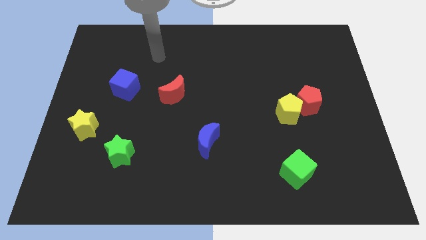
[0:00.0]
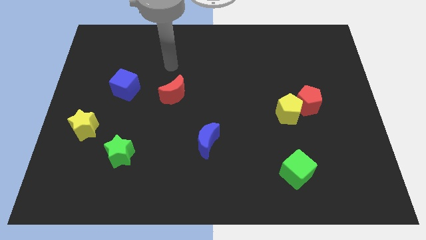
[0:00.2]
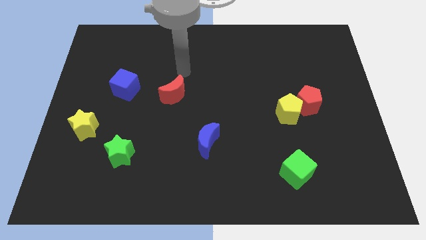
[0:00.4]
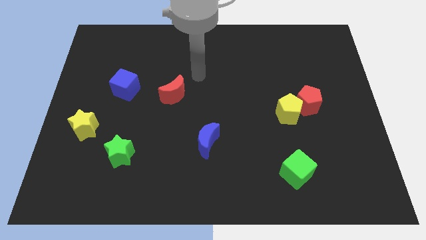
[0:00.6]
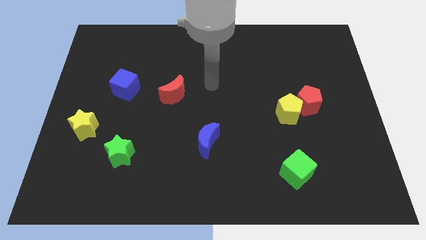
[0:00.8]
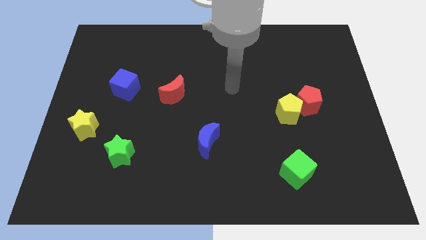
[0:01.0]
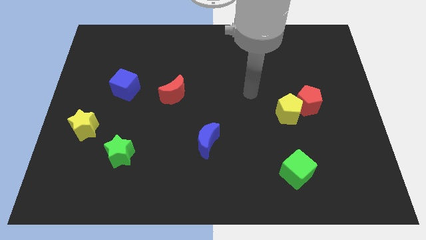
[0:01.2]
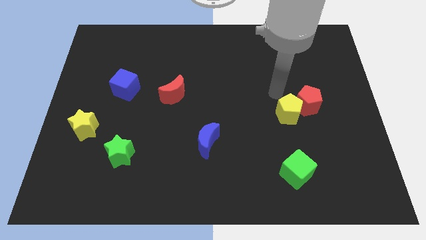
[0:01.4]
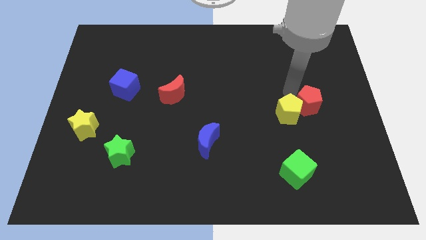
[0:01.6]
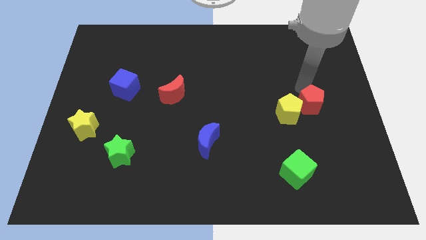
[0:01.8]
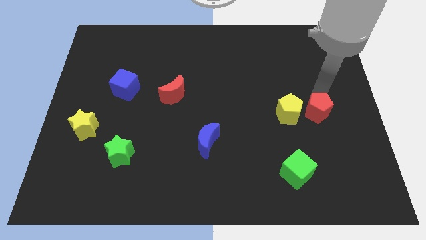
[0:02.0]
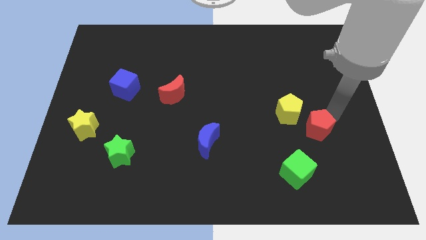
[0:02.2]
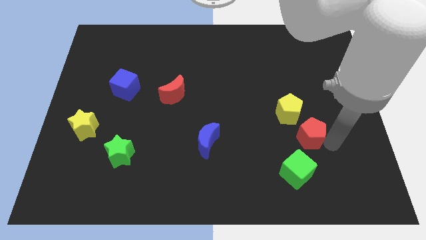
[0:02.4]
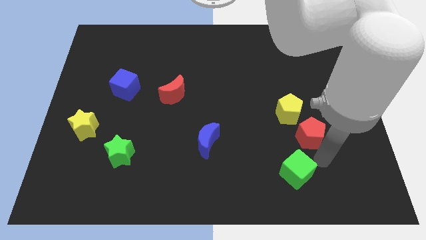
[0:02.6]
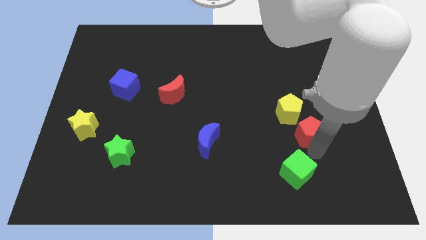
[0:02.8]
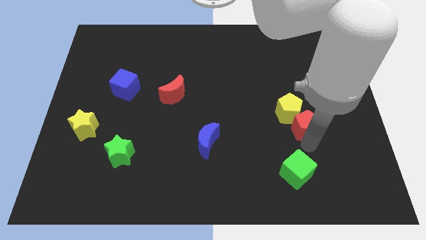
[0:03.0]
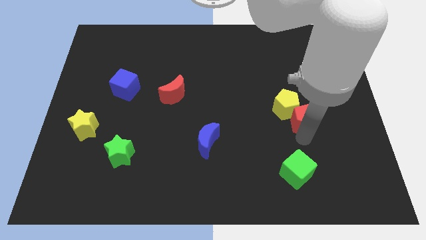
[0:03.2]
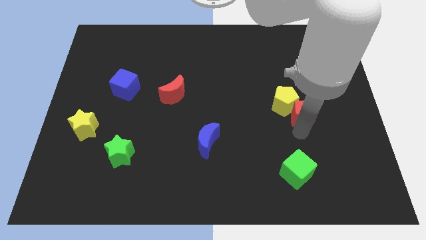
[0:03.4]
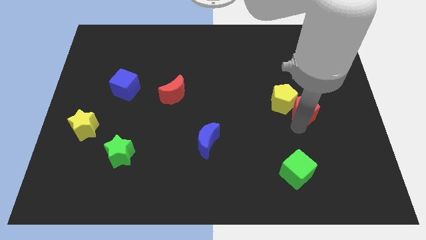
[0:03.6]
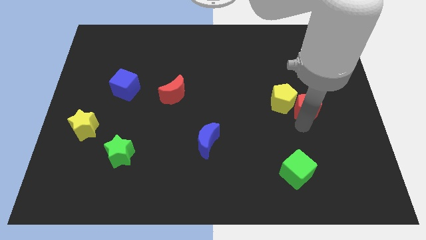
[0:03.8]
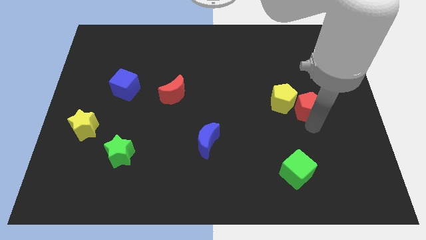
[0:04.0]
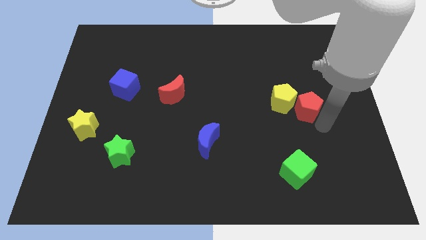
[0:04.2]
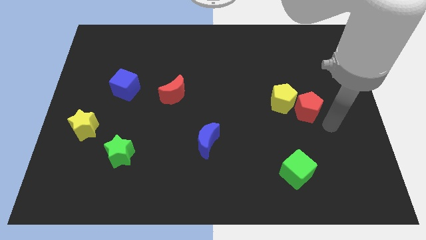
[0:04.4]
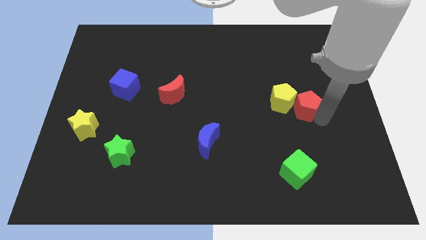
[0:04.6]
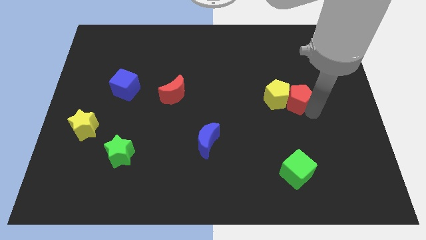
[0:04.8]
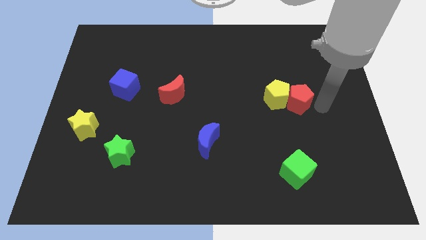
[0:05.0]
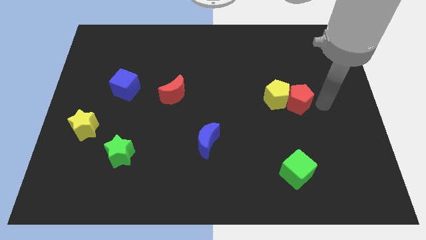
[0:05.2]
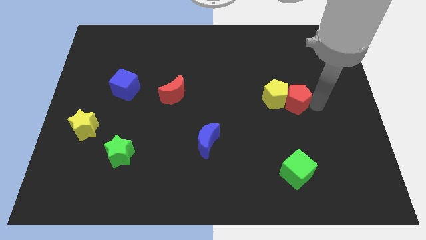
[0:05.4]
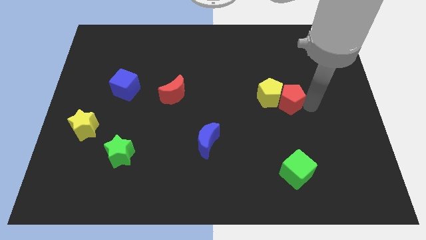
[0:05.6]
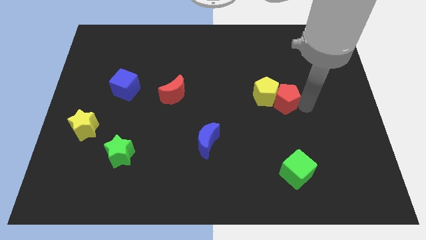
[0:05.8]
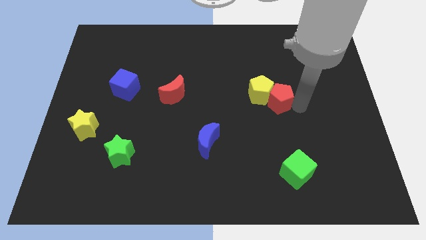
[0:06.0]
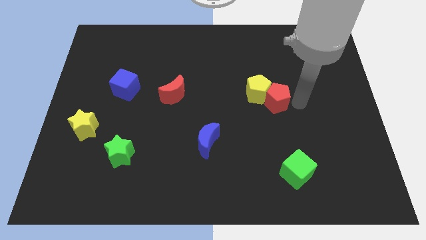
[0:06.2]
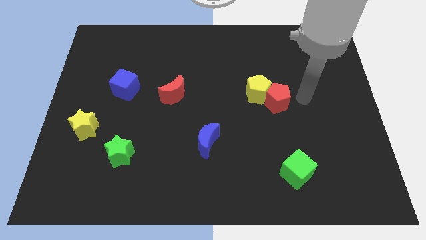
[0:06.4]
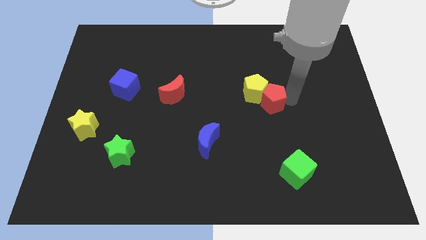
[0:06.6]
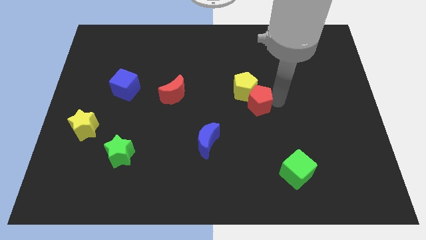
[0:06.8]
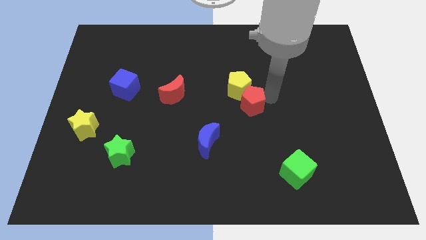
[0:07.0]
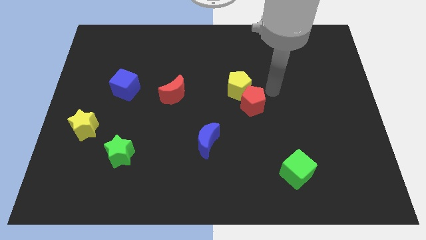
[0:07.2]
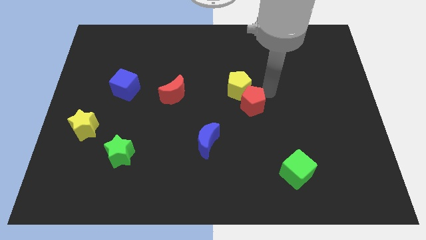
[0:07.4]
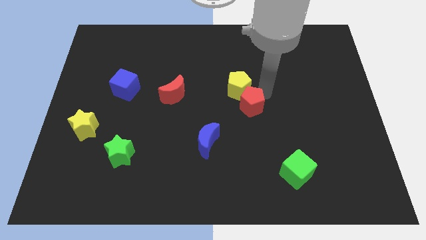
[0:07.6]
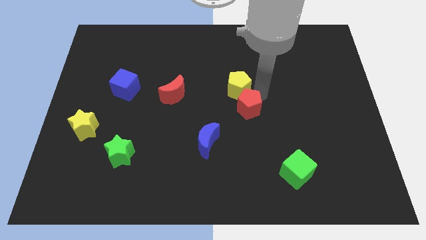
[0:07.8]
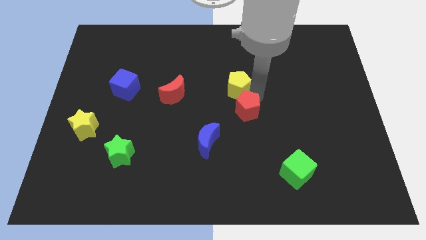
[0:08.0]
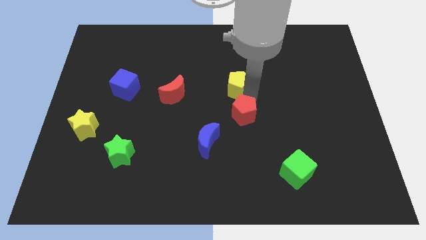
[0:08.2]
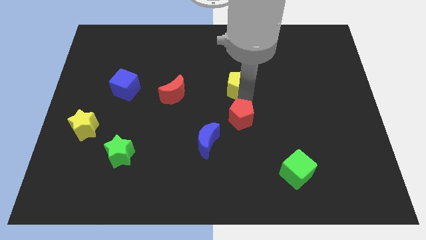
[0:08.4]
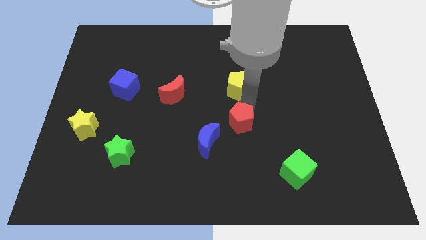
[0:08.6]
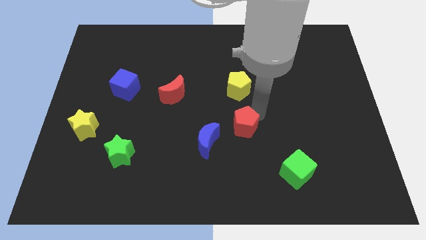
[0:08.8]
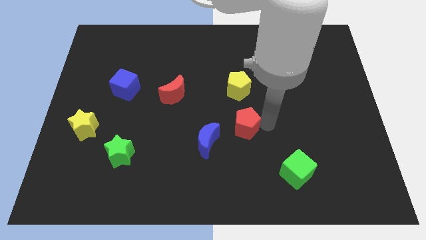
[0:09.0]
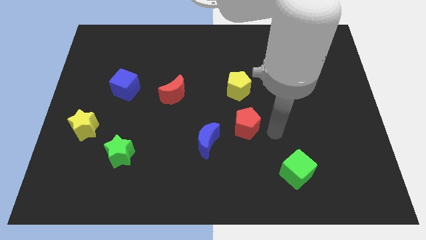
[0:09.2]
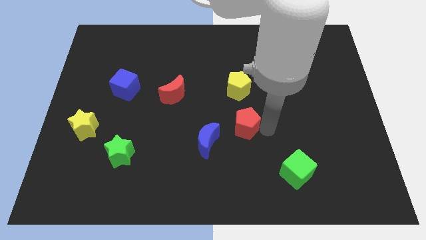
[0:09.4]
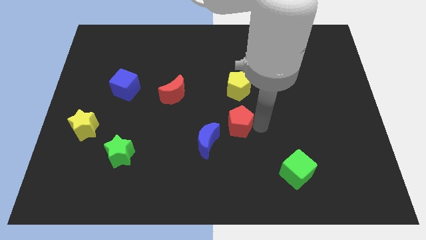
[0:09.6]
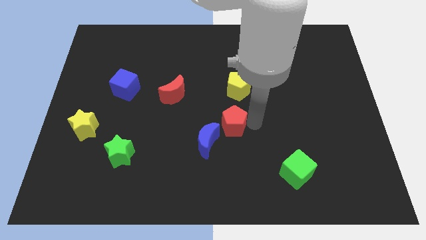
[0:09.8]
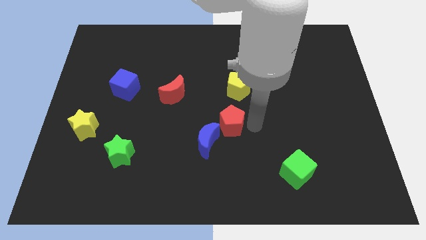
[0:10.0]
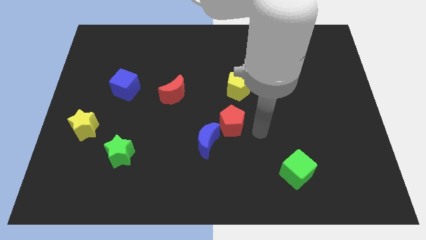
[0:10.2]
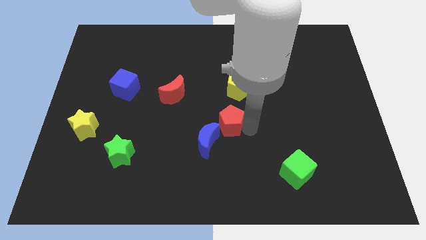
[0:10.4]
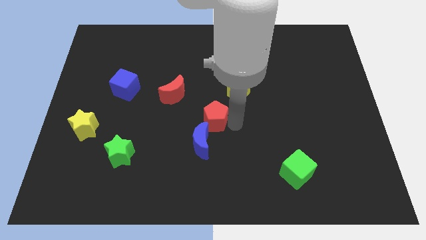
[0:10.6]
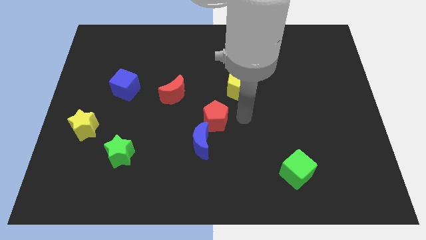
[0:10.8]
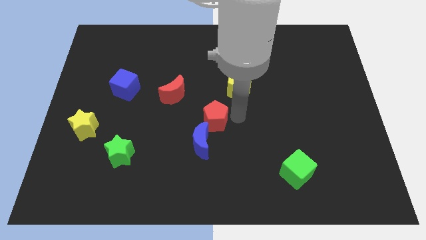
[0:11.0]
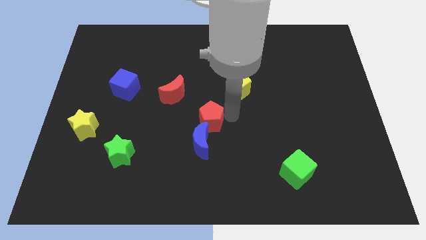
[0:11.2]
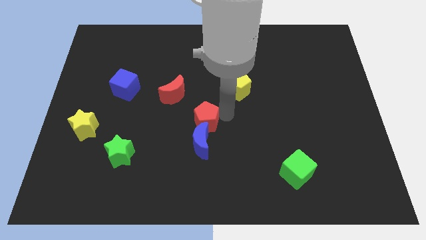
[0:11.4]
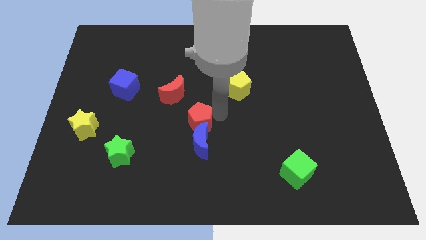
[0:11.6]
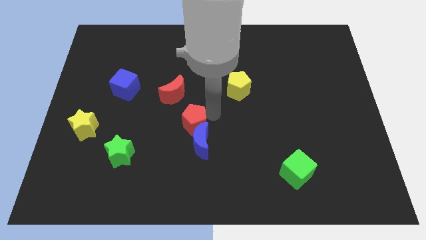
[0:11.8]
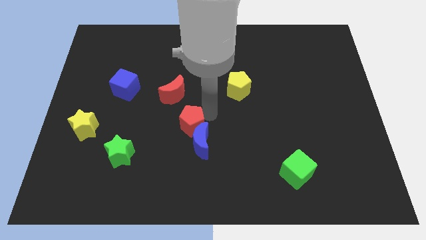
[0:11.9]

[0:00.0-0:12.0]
move the red pentagon to the bottom of the red moon

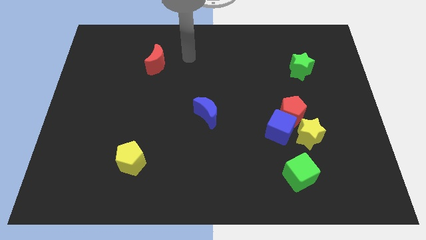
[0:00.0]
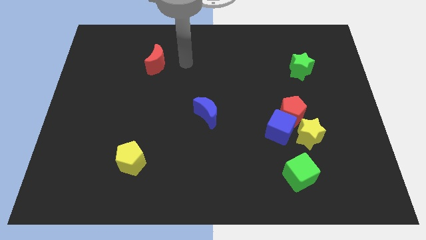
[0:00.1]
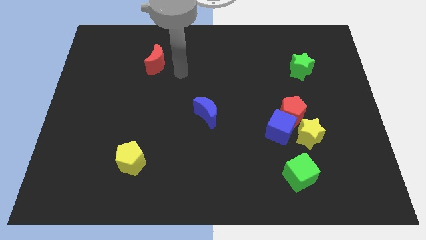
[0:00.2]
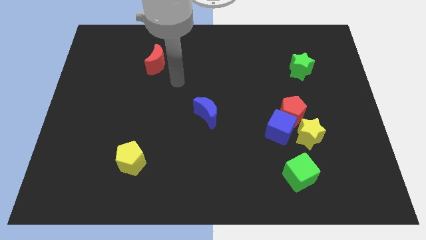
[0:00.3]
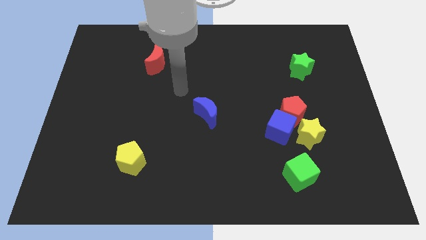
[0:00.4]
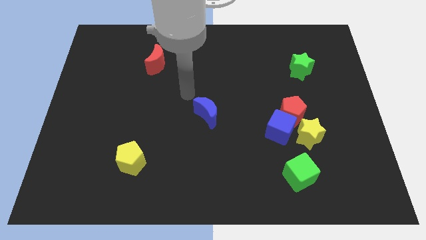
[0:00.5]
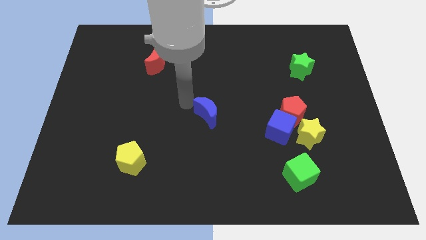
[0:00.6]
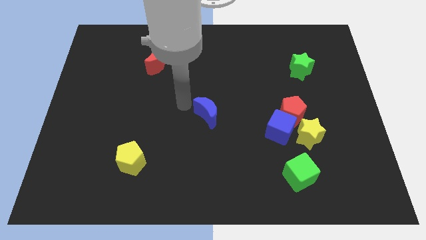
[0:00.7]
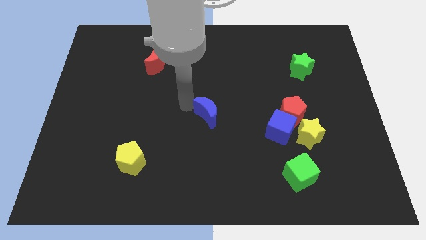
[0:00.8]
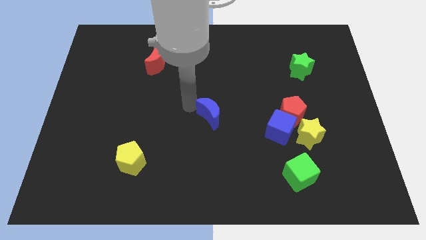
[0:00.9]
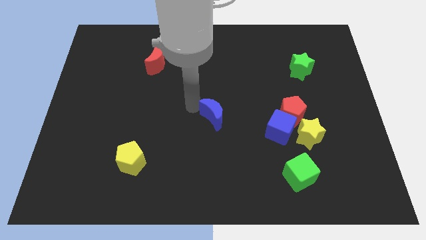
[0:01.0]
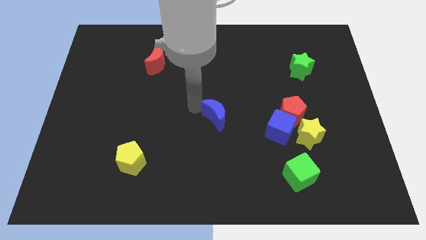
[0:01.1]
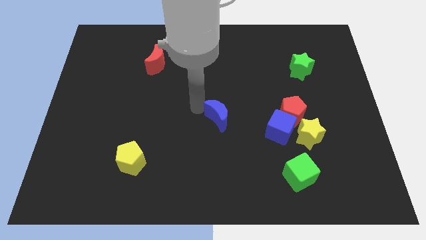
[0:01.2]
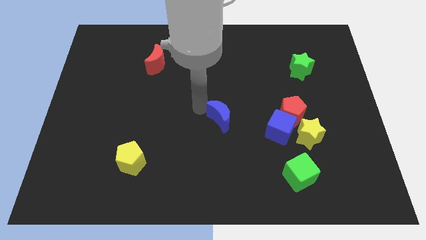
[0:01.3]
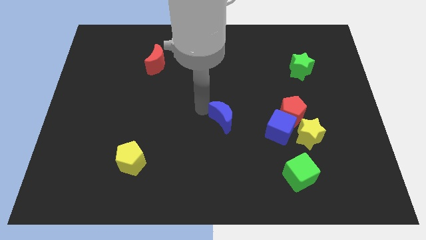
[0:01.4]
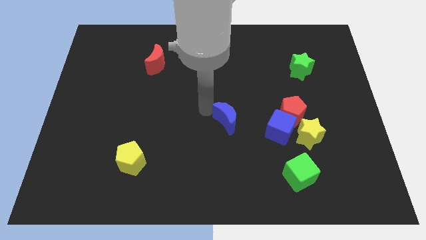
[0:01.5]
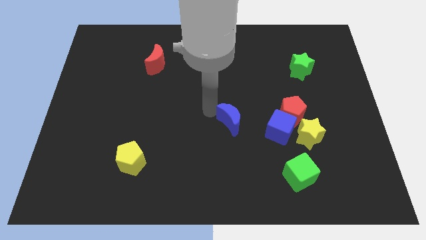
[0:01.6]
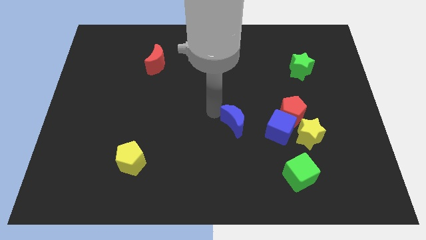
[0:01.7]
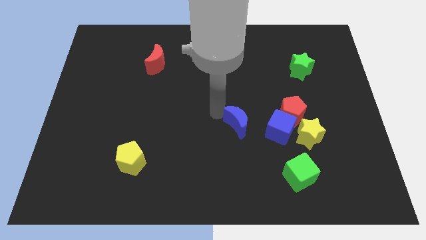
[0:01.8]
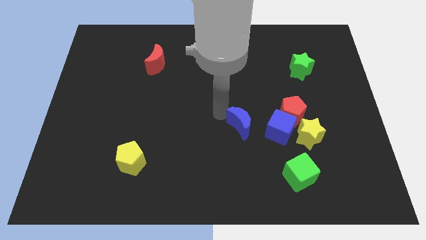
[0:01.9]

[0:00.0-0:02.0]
move the blue moon just left of the yellow star
